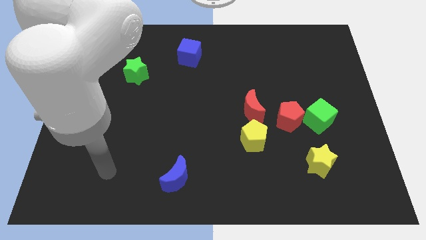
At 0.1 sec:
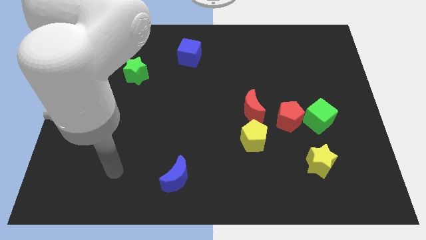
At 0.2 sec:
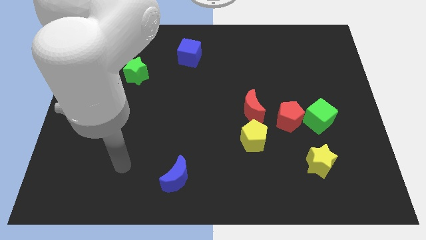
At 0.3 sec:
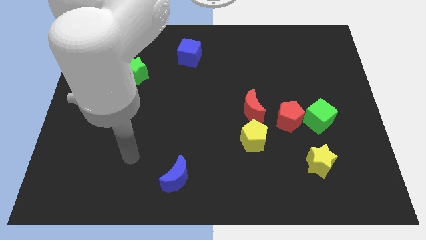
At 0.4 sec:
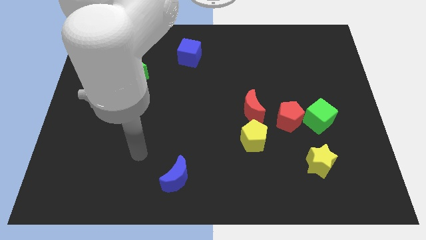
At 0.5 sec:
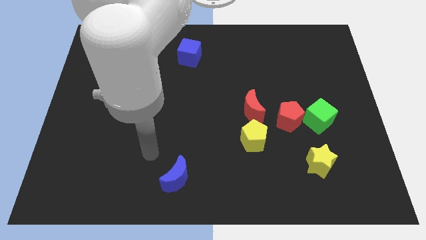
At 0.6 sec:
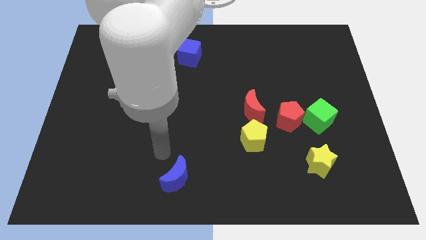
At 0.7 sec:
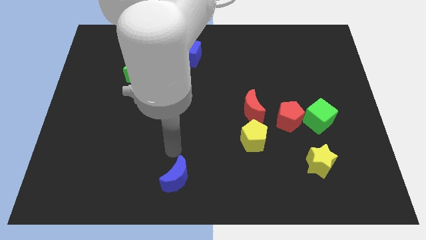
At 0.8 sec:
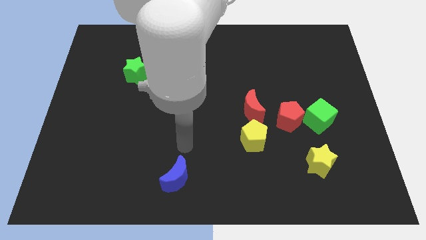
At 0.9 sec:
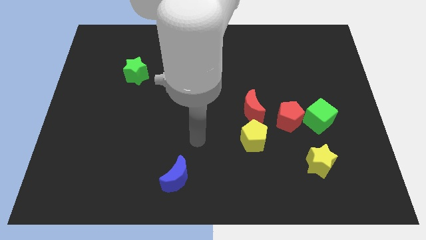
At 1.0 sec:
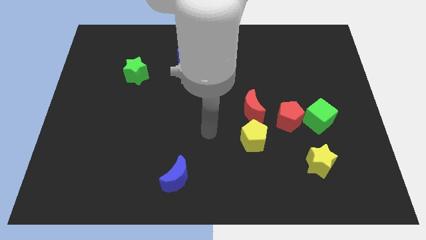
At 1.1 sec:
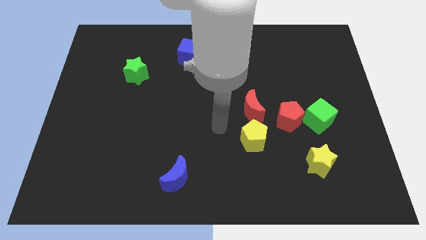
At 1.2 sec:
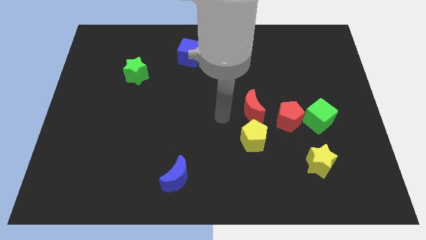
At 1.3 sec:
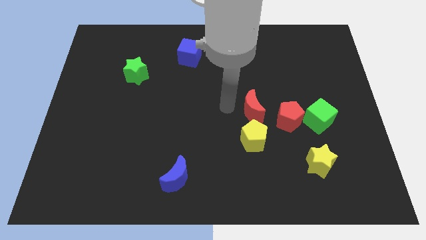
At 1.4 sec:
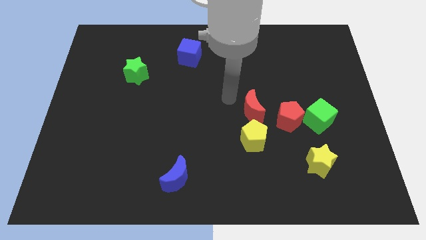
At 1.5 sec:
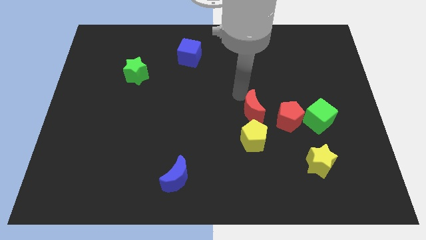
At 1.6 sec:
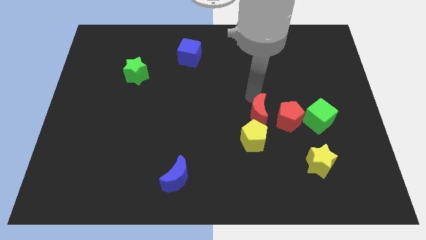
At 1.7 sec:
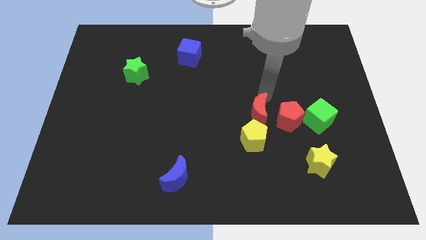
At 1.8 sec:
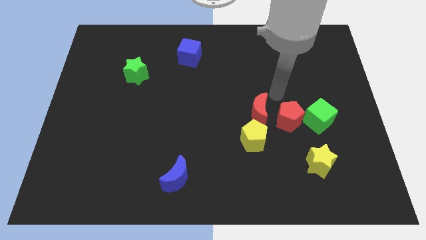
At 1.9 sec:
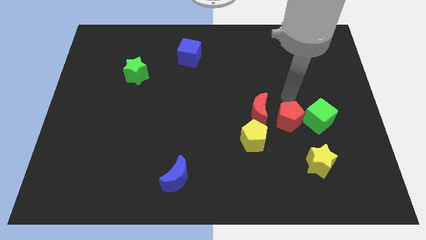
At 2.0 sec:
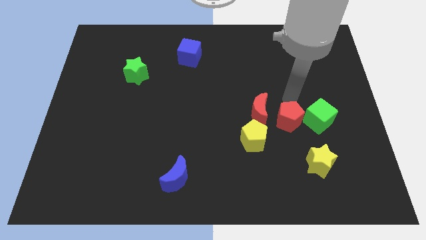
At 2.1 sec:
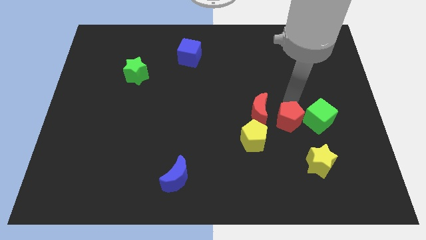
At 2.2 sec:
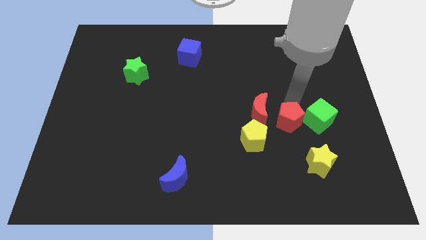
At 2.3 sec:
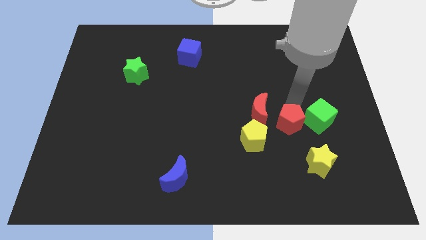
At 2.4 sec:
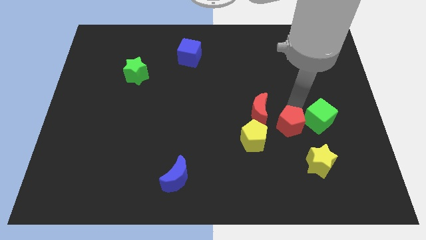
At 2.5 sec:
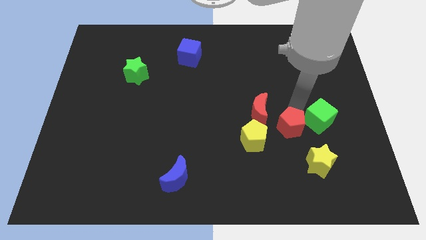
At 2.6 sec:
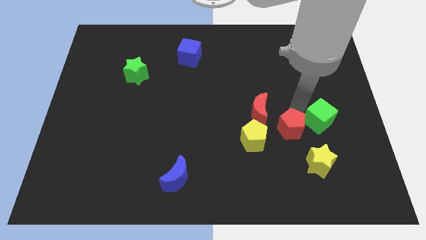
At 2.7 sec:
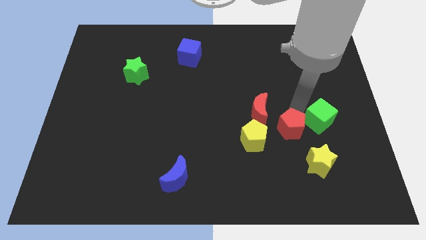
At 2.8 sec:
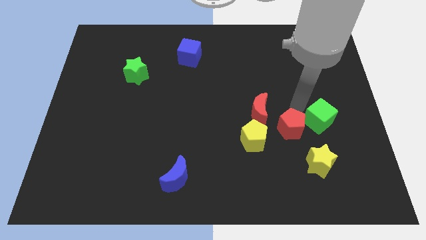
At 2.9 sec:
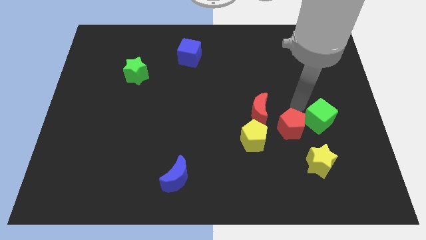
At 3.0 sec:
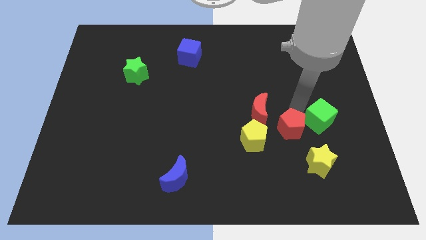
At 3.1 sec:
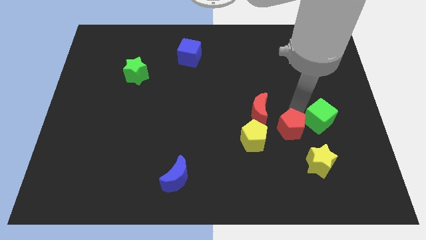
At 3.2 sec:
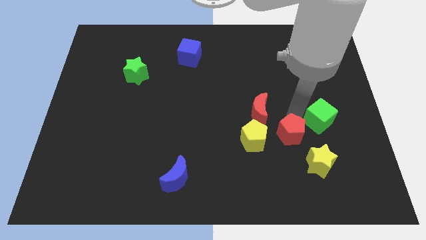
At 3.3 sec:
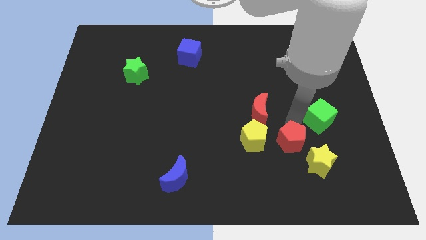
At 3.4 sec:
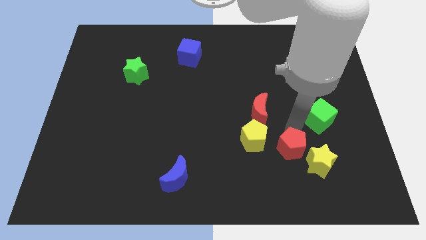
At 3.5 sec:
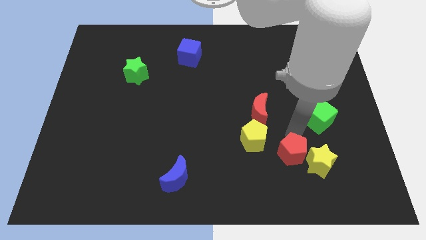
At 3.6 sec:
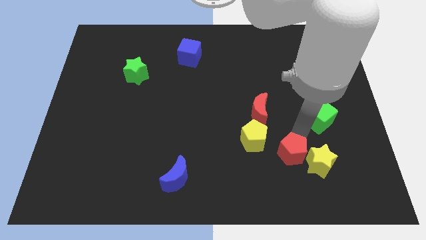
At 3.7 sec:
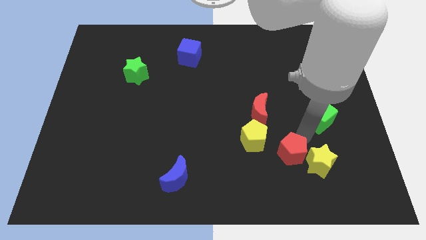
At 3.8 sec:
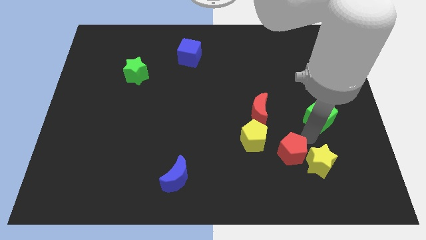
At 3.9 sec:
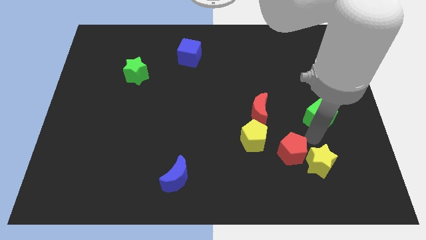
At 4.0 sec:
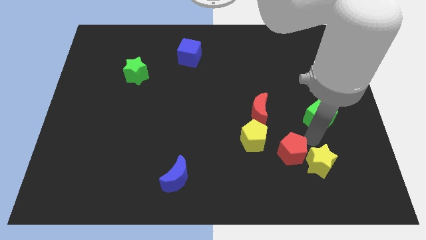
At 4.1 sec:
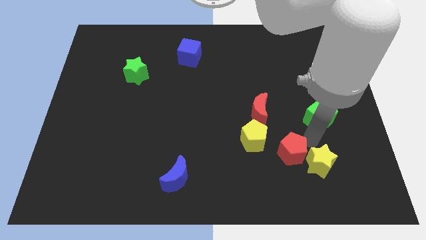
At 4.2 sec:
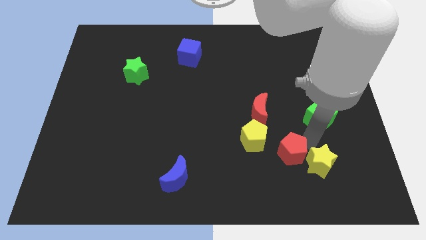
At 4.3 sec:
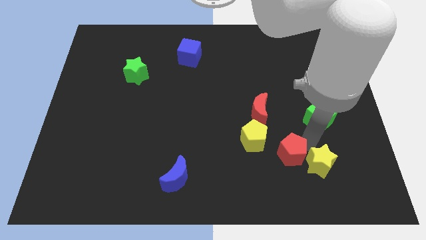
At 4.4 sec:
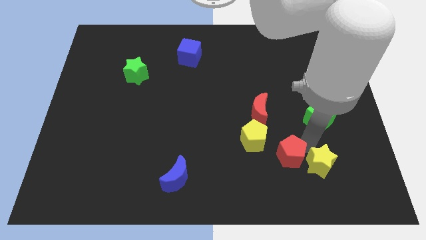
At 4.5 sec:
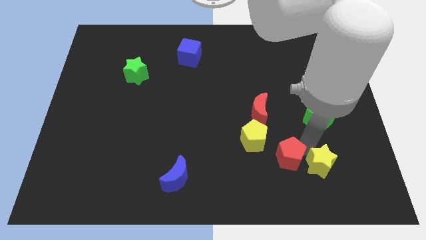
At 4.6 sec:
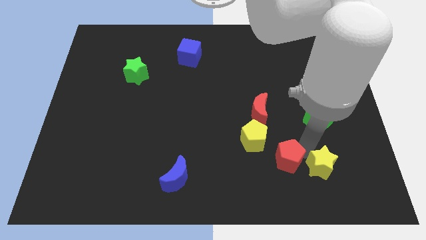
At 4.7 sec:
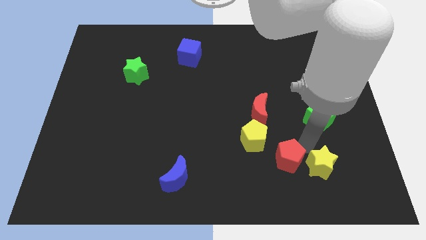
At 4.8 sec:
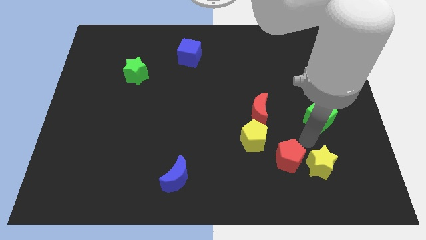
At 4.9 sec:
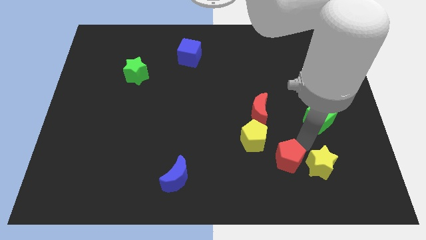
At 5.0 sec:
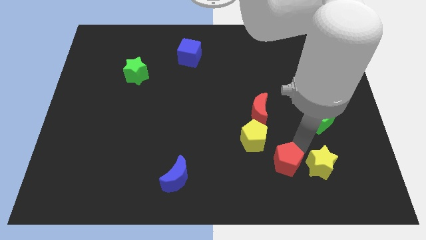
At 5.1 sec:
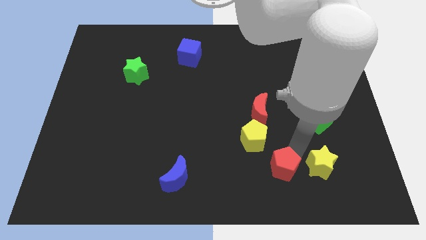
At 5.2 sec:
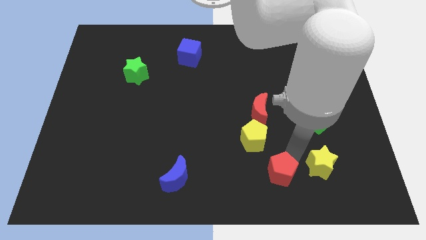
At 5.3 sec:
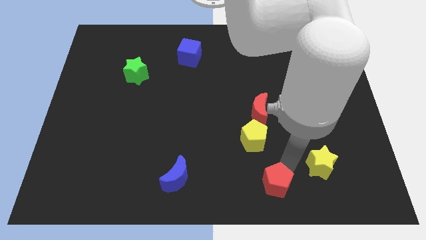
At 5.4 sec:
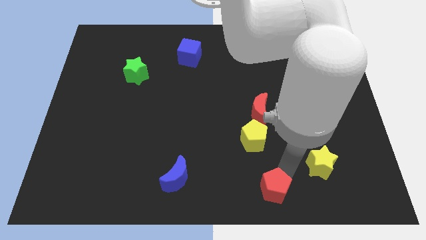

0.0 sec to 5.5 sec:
push the red pentagon to the bottom side

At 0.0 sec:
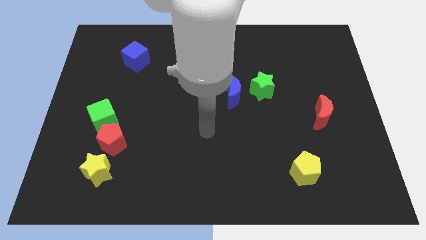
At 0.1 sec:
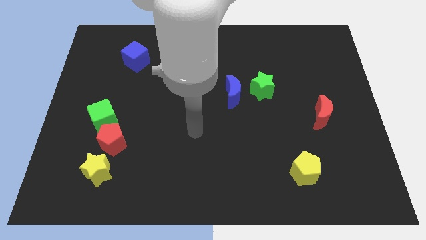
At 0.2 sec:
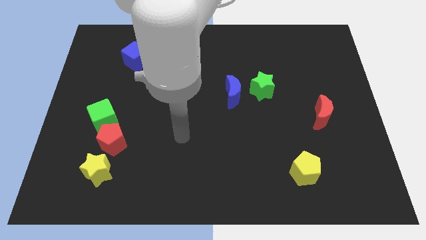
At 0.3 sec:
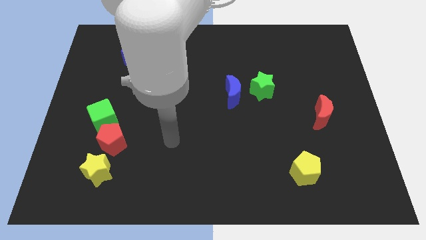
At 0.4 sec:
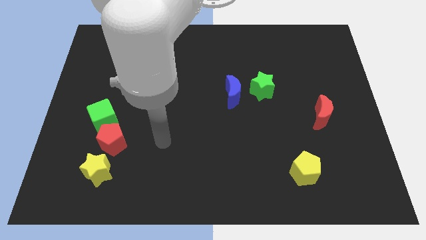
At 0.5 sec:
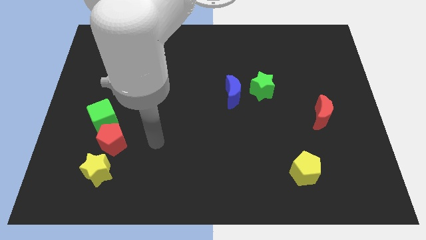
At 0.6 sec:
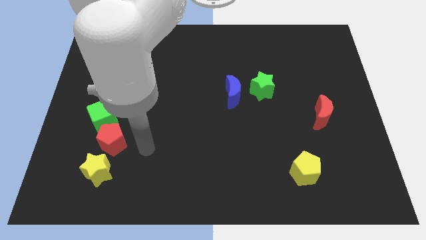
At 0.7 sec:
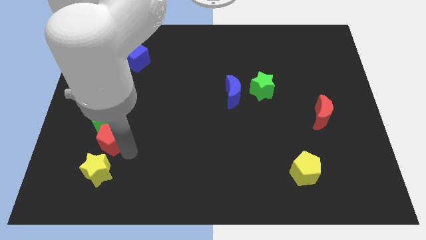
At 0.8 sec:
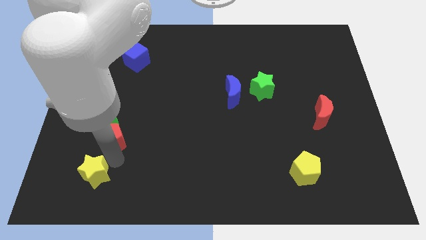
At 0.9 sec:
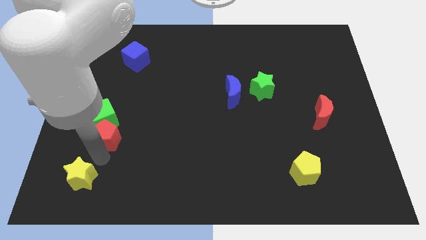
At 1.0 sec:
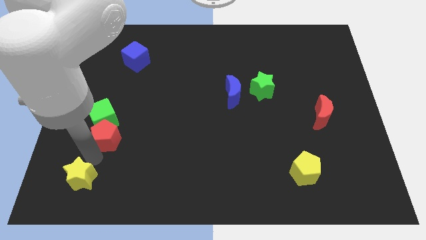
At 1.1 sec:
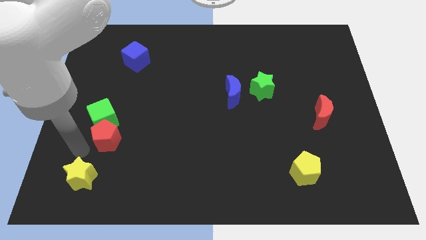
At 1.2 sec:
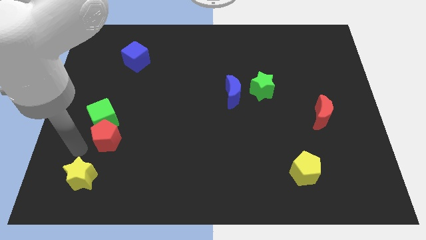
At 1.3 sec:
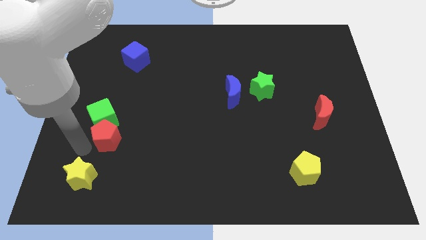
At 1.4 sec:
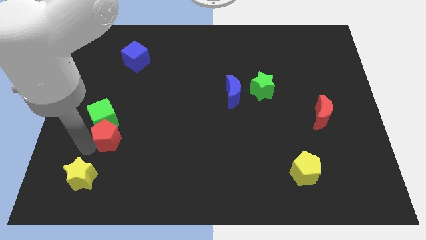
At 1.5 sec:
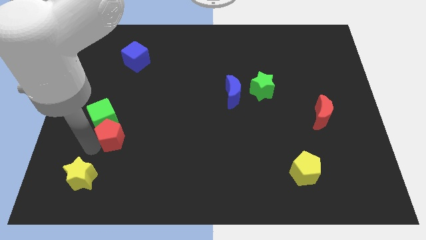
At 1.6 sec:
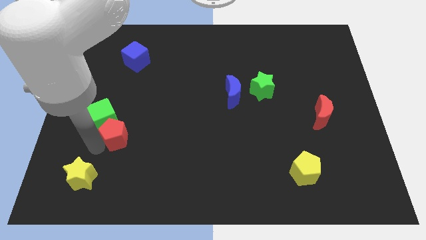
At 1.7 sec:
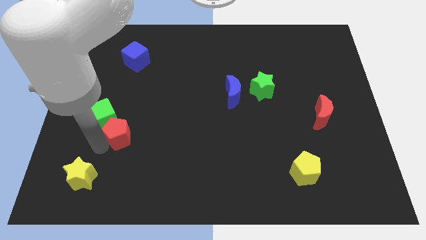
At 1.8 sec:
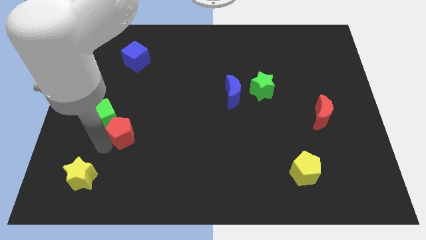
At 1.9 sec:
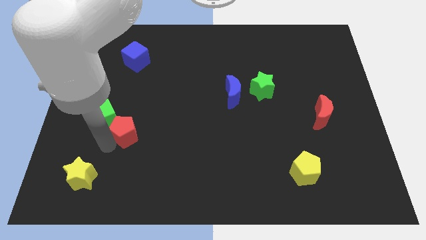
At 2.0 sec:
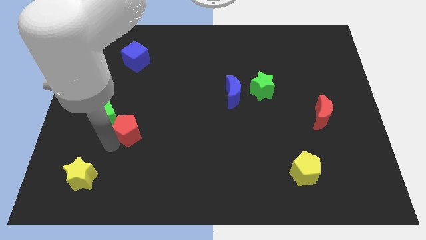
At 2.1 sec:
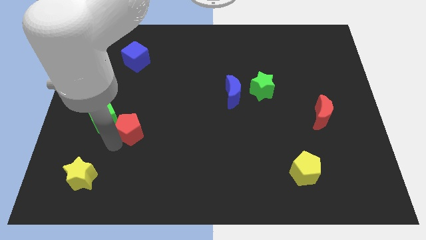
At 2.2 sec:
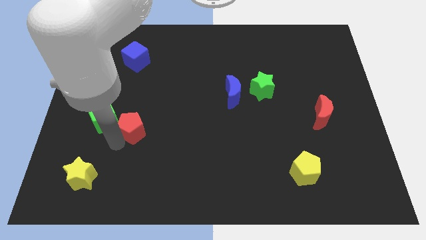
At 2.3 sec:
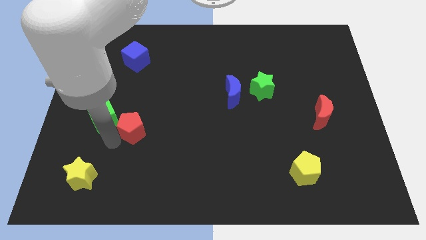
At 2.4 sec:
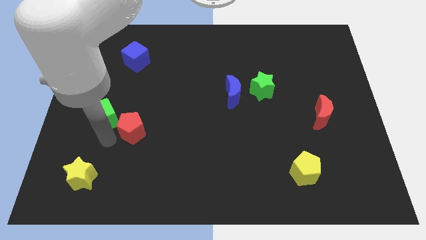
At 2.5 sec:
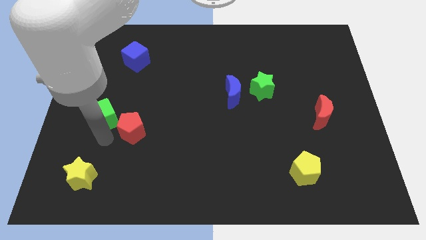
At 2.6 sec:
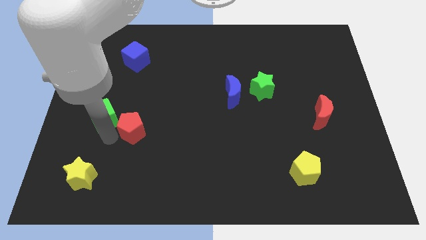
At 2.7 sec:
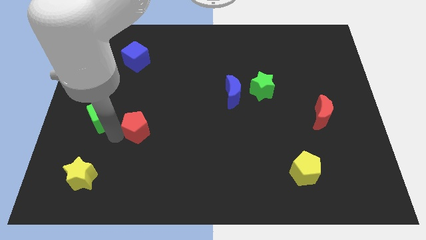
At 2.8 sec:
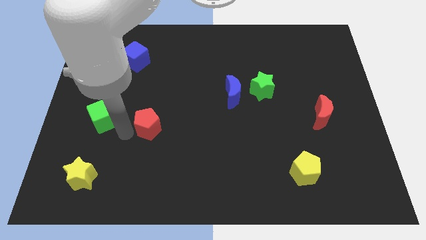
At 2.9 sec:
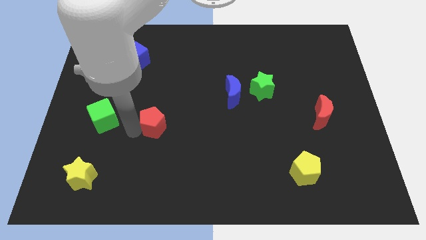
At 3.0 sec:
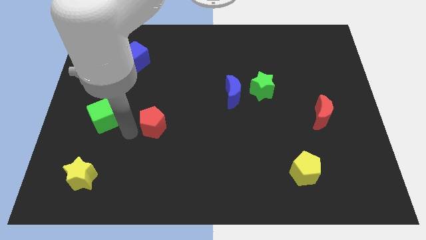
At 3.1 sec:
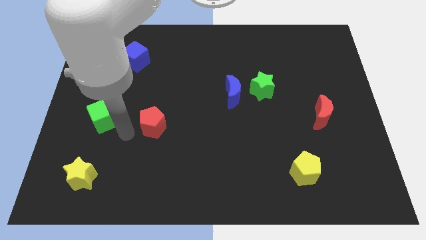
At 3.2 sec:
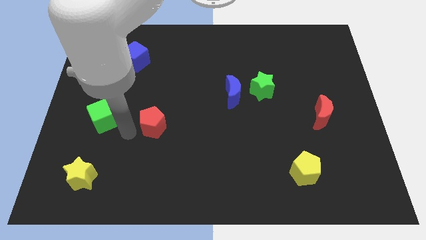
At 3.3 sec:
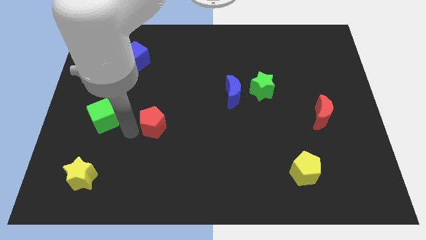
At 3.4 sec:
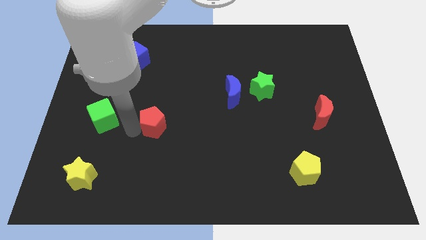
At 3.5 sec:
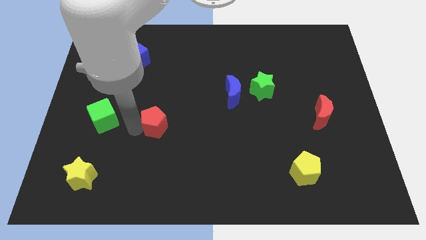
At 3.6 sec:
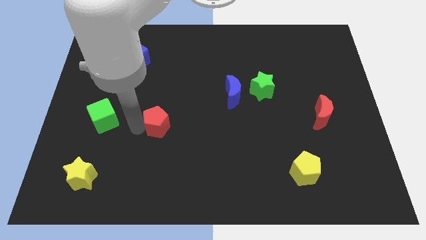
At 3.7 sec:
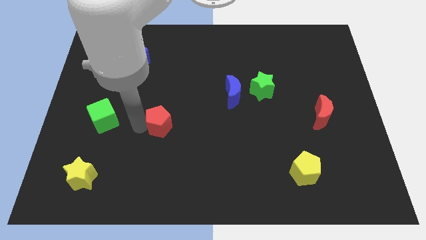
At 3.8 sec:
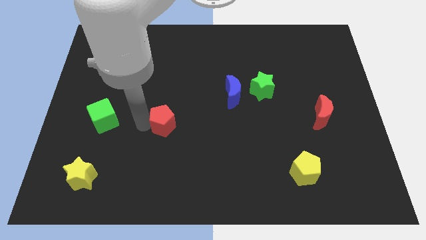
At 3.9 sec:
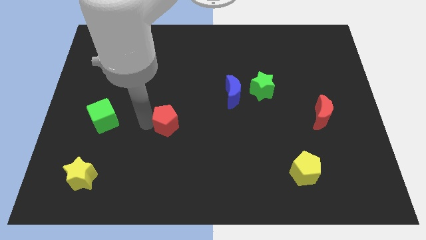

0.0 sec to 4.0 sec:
move the red pentagon to the center
